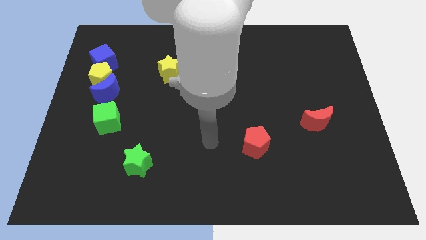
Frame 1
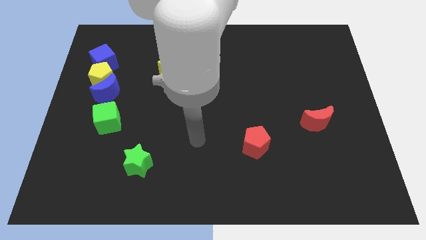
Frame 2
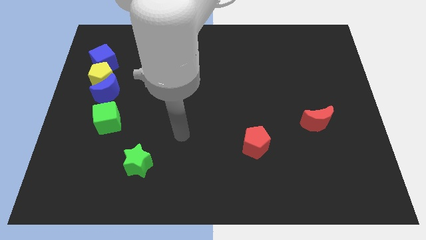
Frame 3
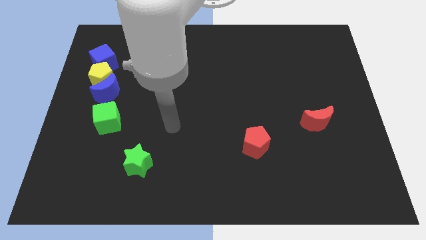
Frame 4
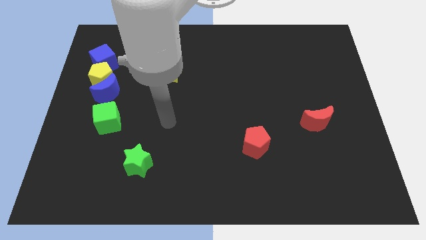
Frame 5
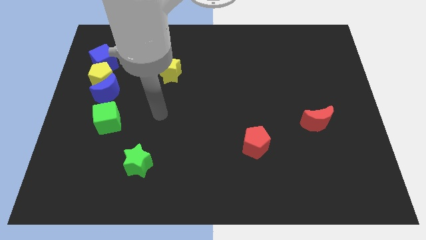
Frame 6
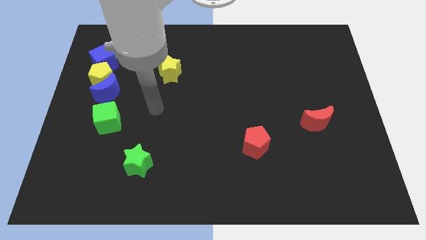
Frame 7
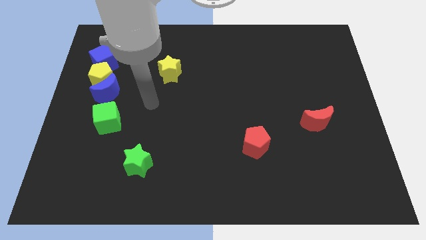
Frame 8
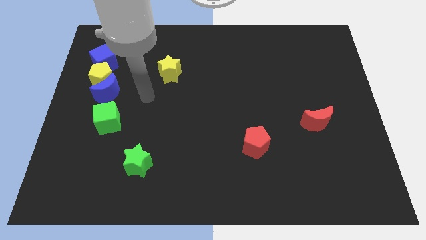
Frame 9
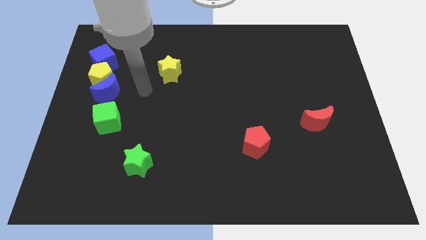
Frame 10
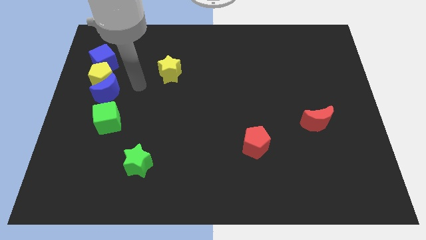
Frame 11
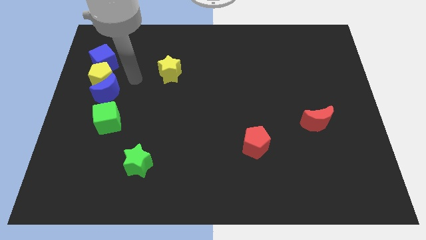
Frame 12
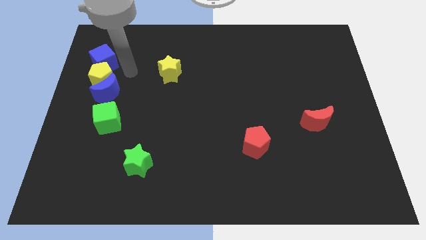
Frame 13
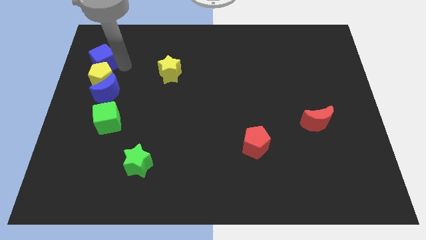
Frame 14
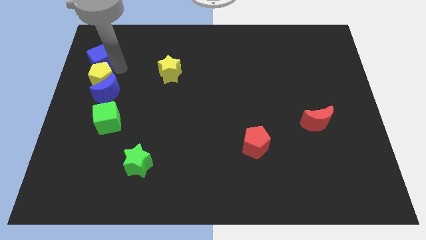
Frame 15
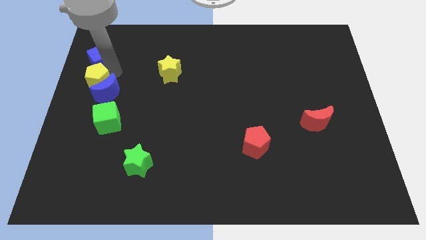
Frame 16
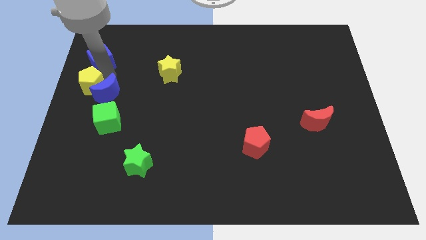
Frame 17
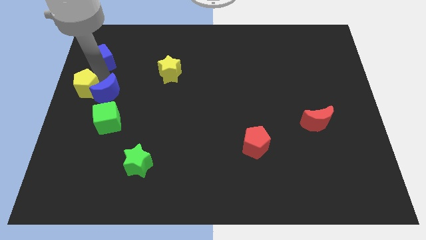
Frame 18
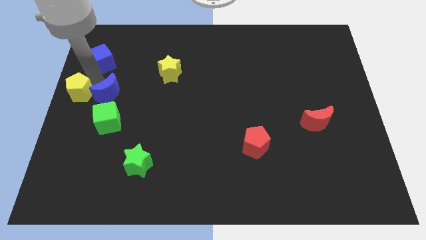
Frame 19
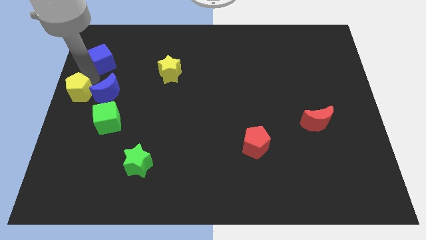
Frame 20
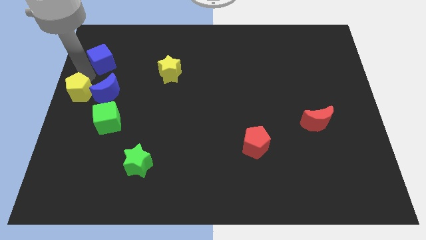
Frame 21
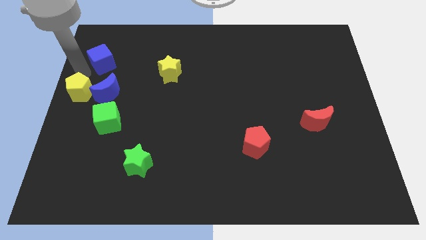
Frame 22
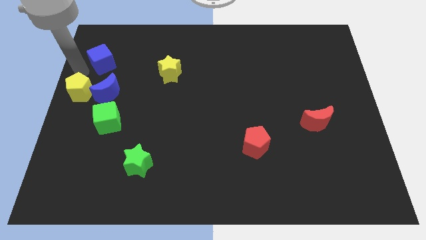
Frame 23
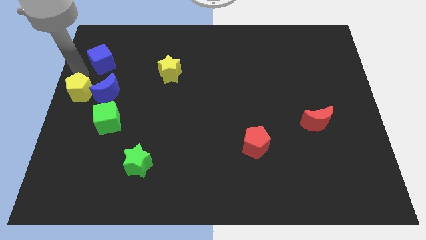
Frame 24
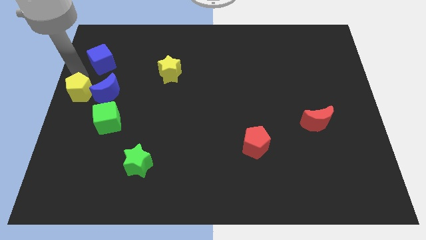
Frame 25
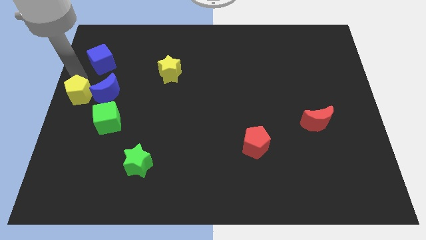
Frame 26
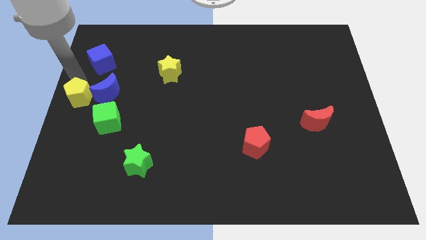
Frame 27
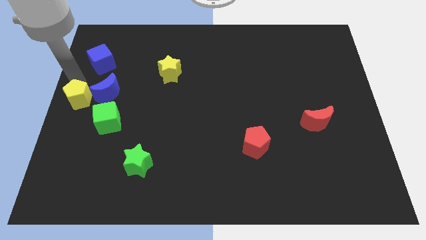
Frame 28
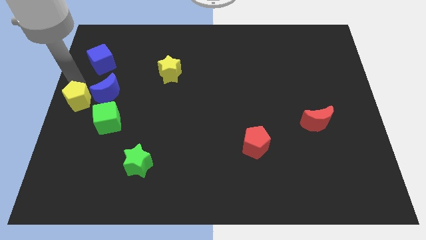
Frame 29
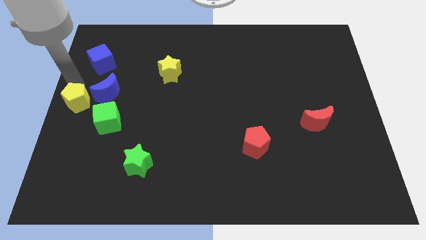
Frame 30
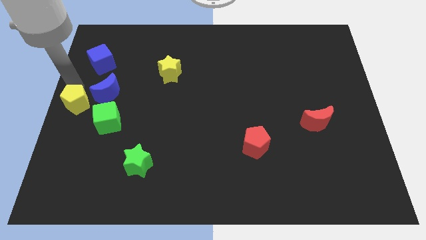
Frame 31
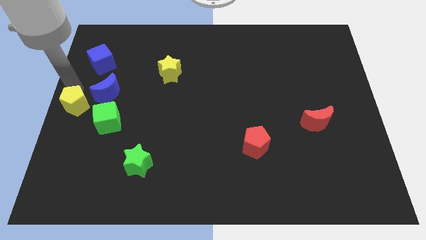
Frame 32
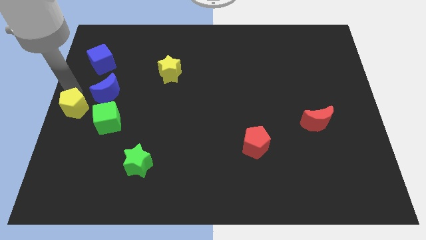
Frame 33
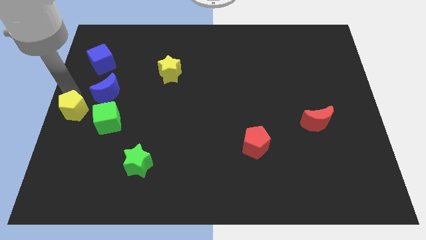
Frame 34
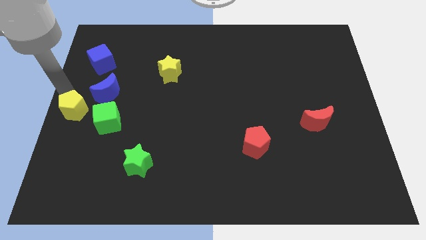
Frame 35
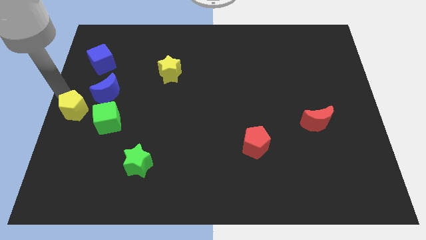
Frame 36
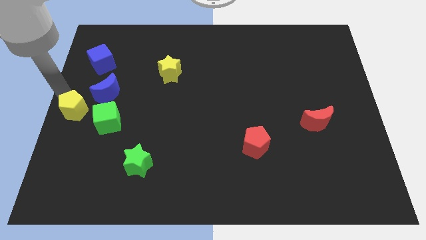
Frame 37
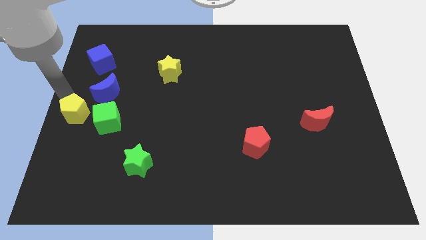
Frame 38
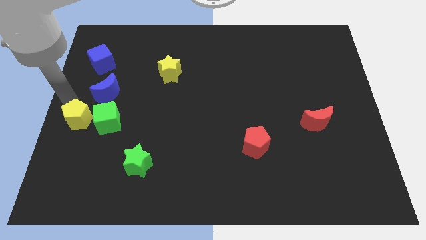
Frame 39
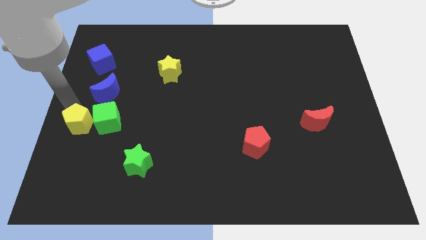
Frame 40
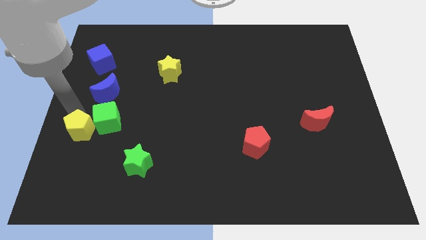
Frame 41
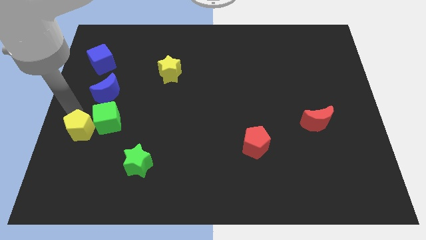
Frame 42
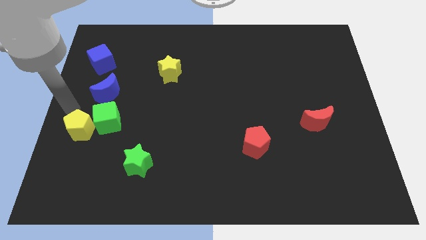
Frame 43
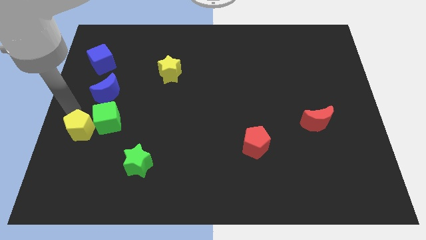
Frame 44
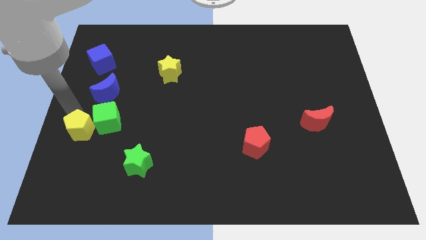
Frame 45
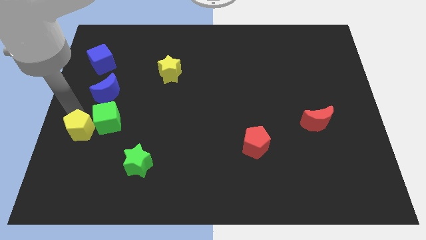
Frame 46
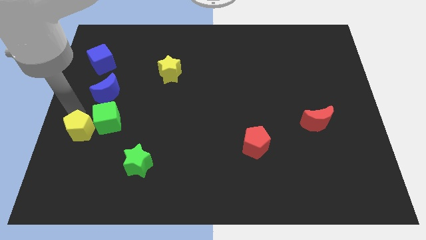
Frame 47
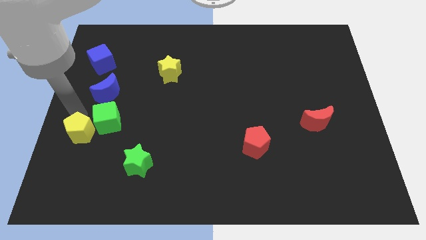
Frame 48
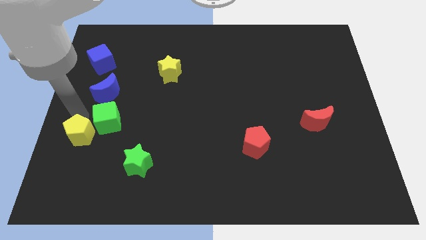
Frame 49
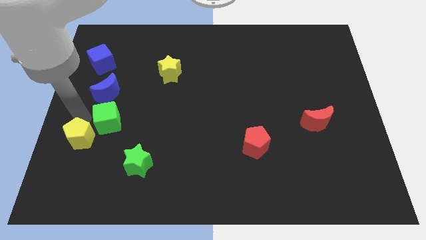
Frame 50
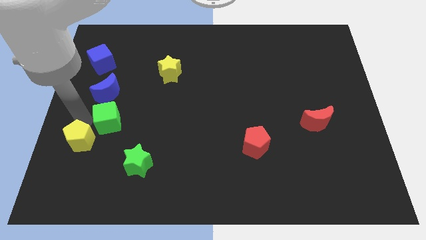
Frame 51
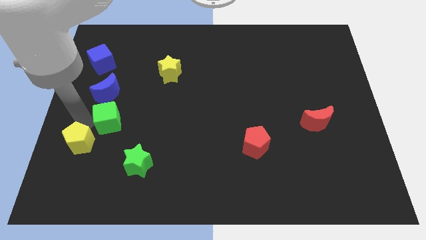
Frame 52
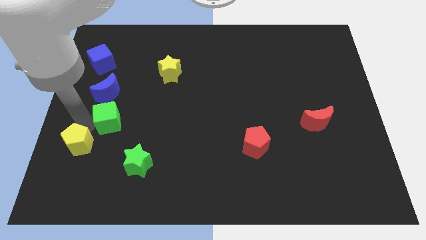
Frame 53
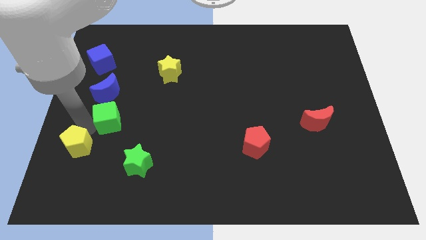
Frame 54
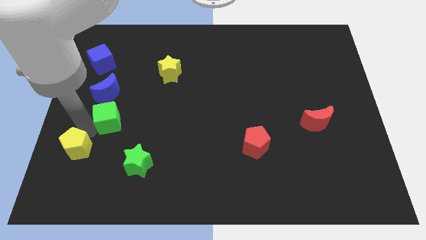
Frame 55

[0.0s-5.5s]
move the yellow pentagon just left of the green star

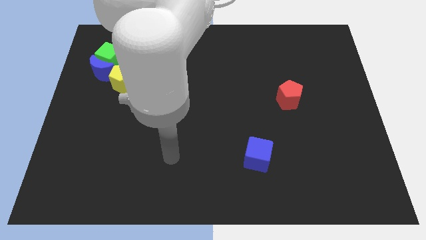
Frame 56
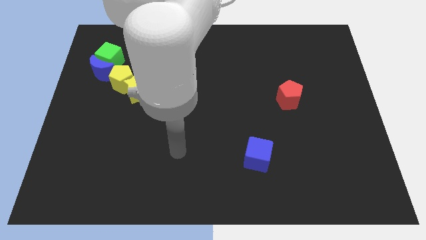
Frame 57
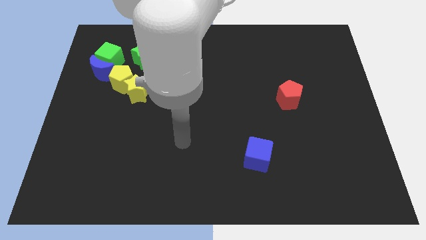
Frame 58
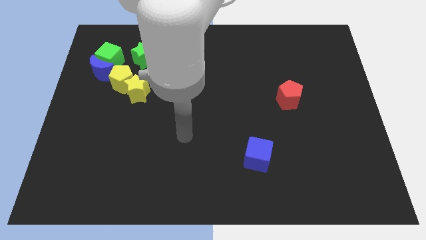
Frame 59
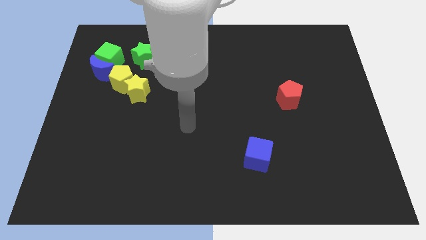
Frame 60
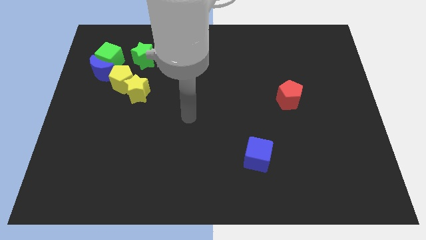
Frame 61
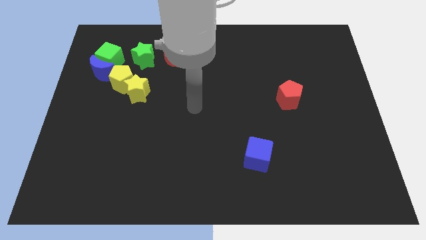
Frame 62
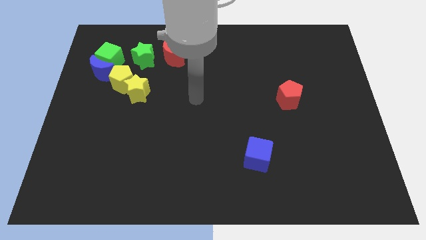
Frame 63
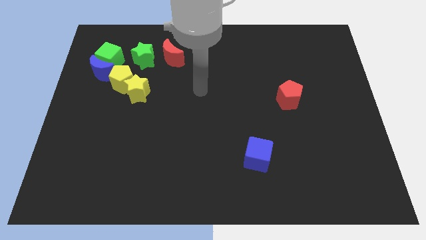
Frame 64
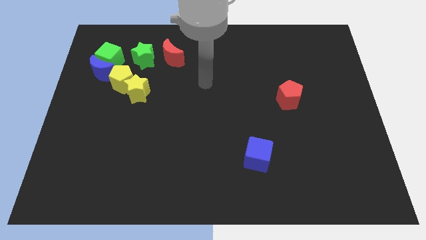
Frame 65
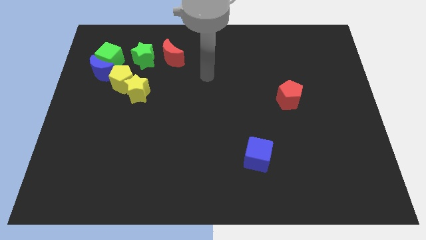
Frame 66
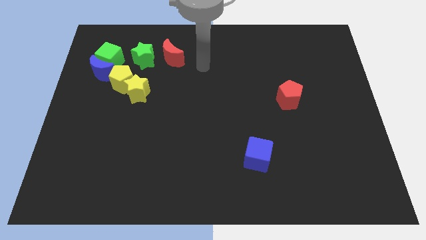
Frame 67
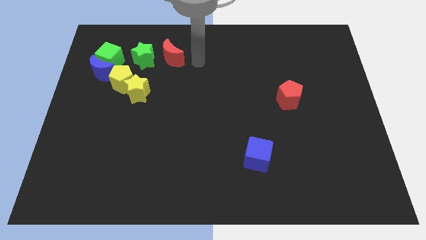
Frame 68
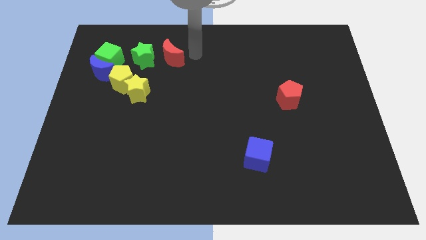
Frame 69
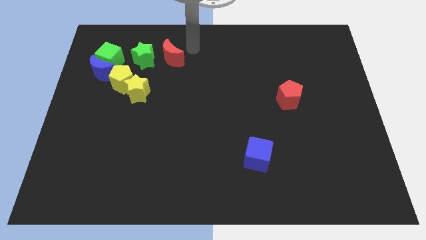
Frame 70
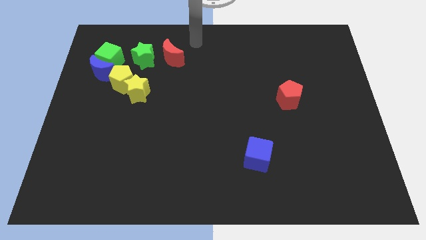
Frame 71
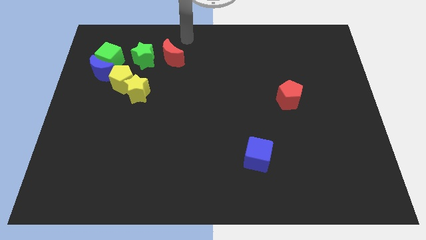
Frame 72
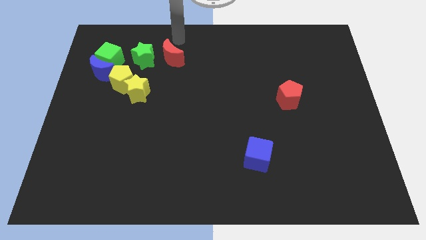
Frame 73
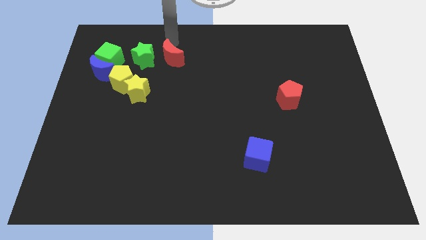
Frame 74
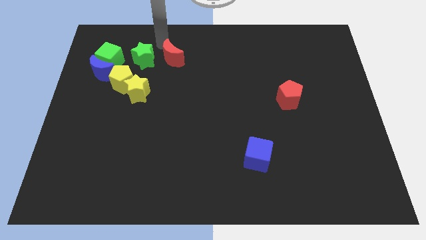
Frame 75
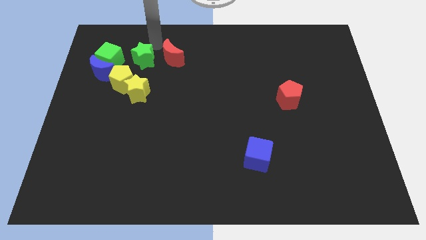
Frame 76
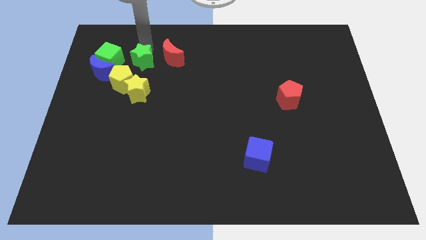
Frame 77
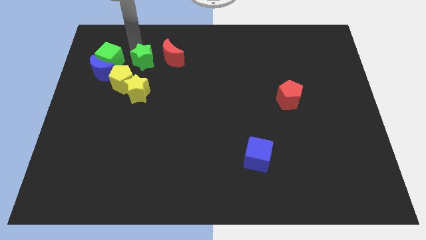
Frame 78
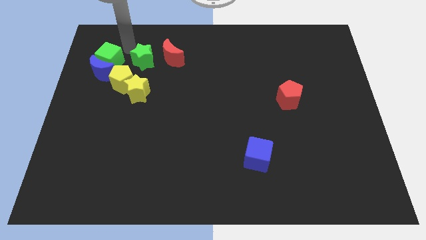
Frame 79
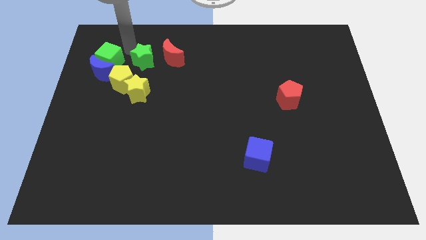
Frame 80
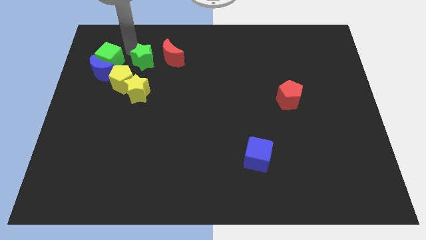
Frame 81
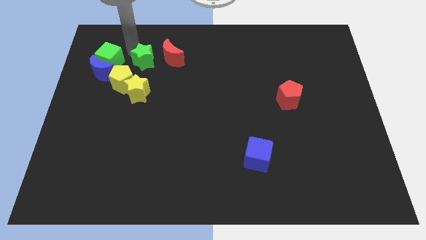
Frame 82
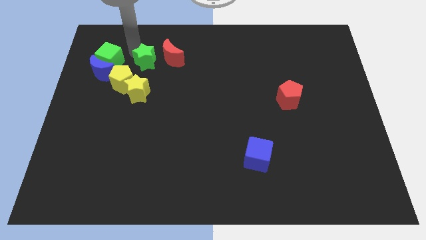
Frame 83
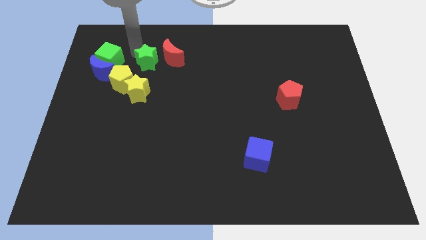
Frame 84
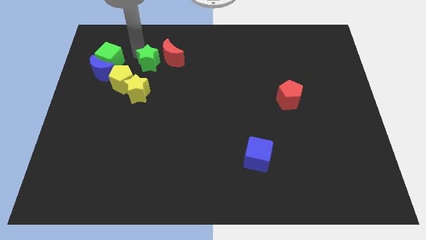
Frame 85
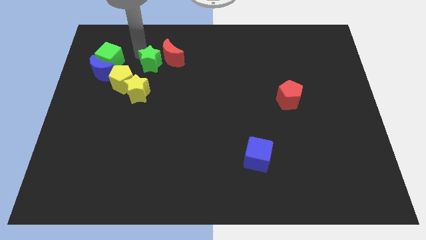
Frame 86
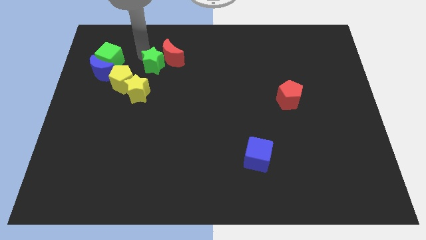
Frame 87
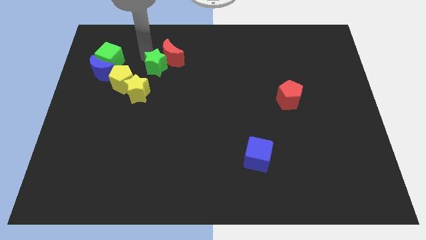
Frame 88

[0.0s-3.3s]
slide the green star to the bottom of the red moon
